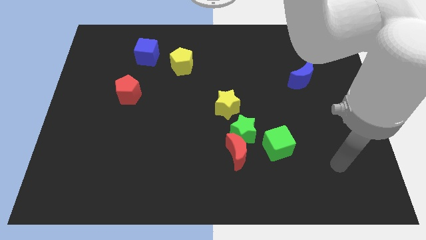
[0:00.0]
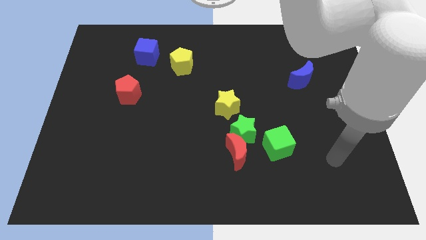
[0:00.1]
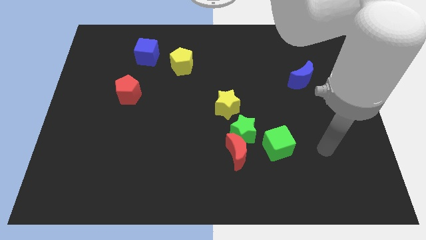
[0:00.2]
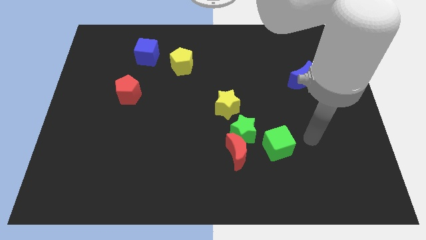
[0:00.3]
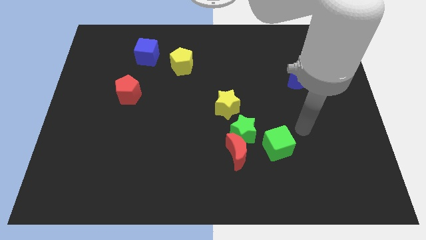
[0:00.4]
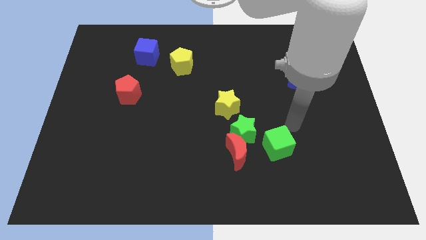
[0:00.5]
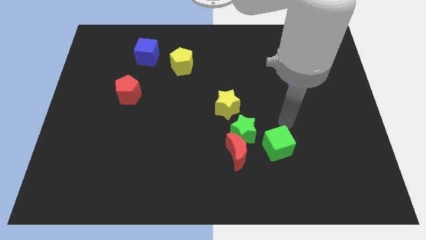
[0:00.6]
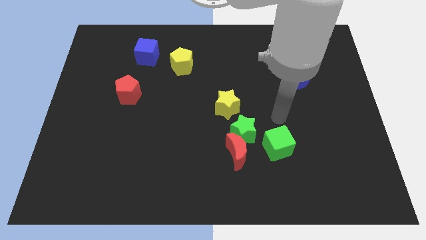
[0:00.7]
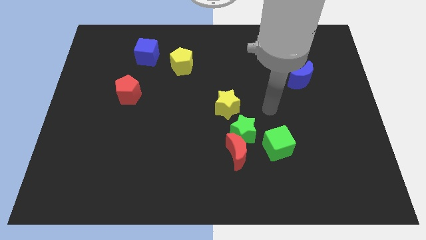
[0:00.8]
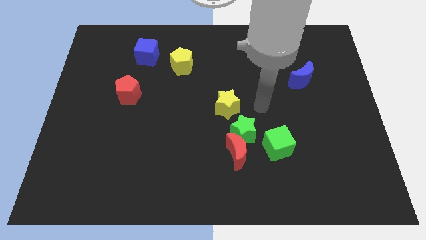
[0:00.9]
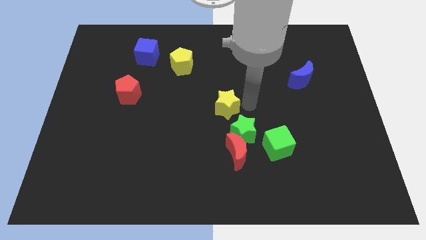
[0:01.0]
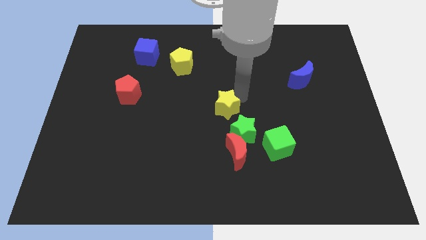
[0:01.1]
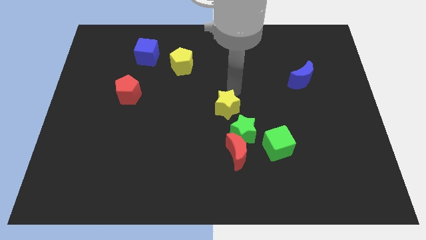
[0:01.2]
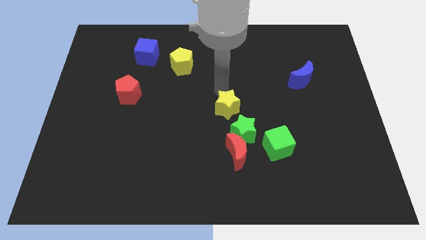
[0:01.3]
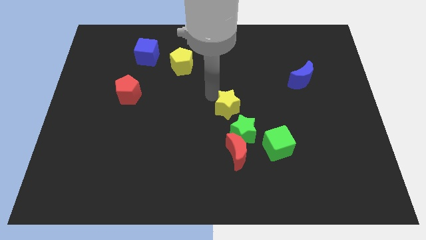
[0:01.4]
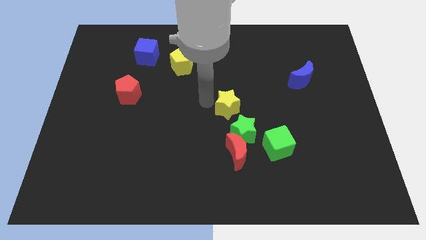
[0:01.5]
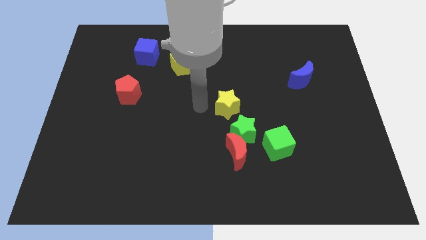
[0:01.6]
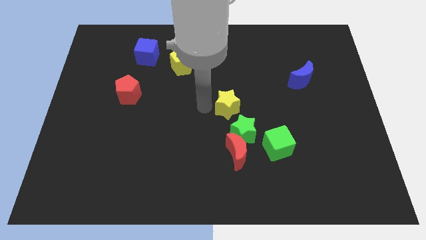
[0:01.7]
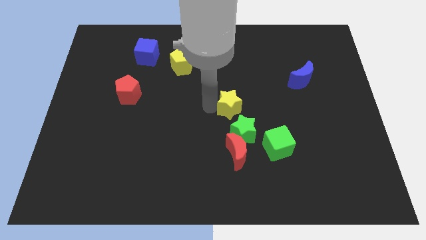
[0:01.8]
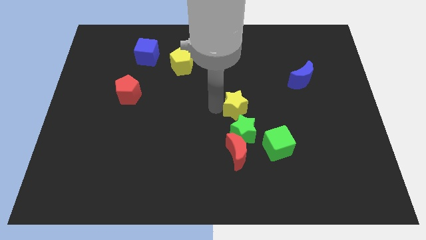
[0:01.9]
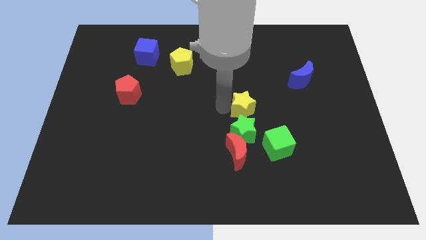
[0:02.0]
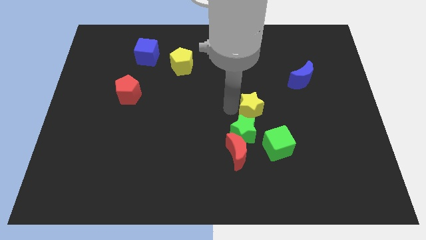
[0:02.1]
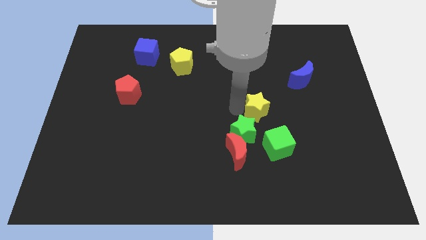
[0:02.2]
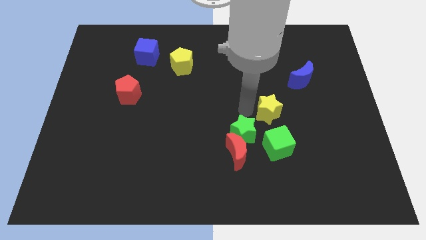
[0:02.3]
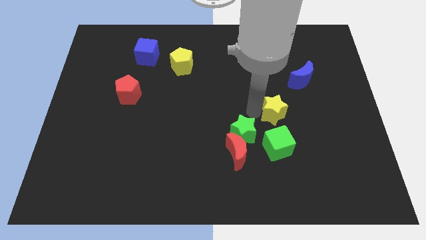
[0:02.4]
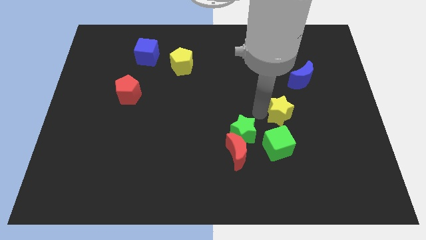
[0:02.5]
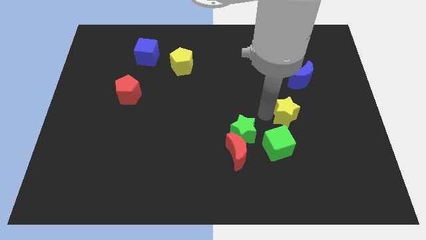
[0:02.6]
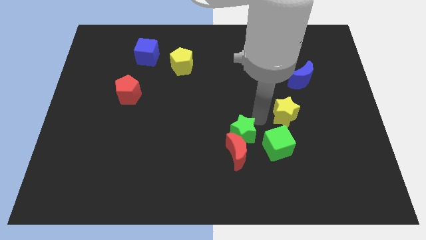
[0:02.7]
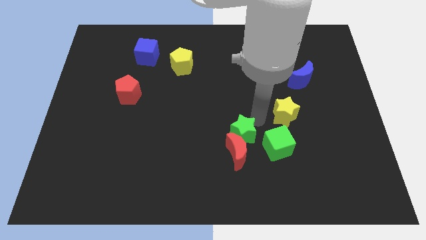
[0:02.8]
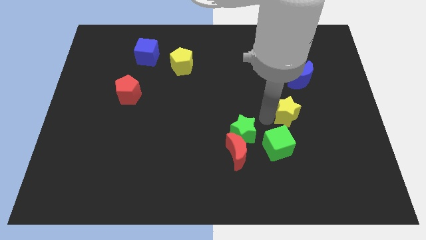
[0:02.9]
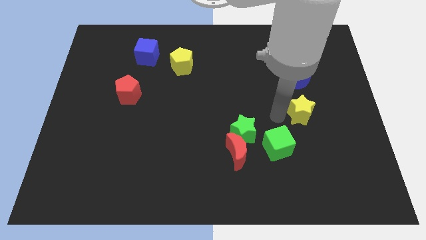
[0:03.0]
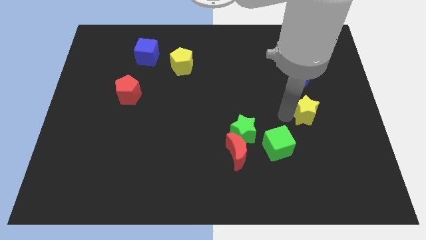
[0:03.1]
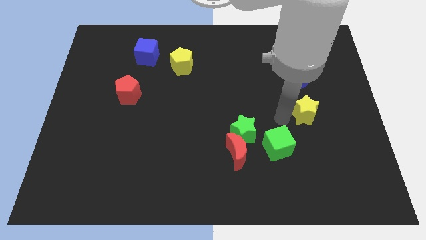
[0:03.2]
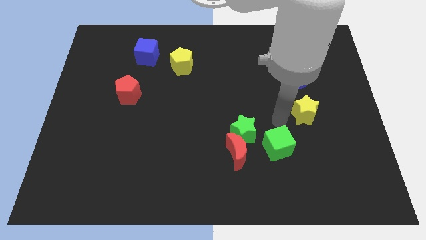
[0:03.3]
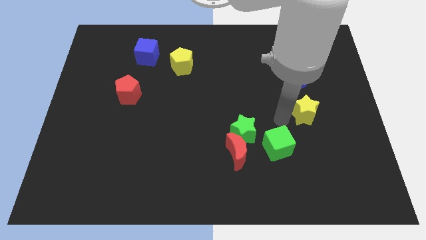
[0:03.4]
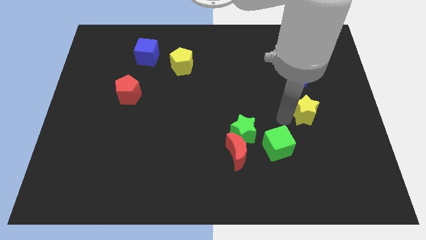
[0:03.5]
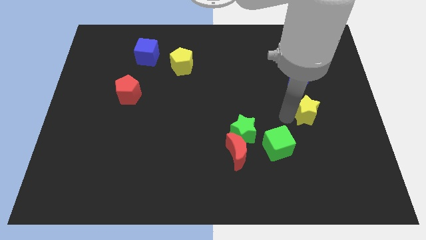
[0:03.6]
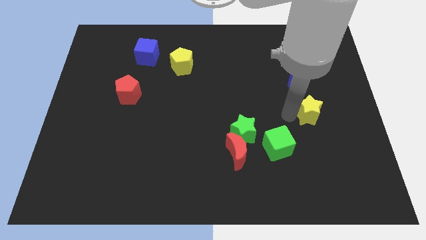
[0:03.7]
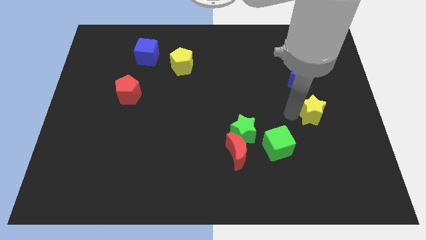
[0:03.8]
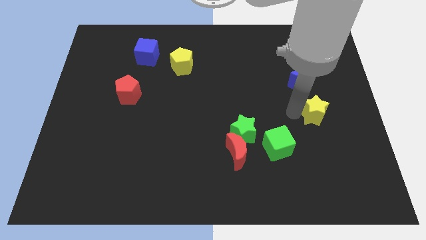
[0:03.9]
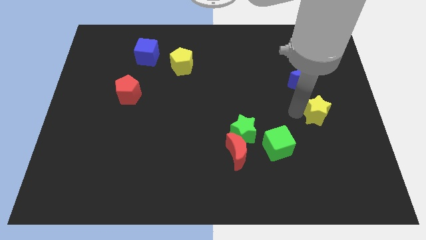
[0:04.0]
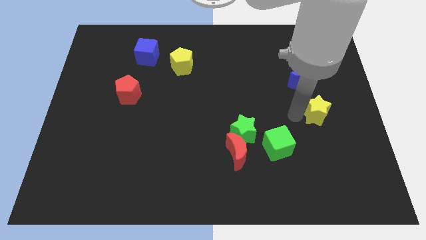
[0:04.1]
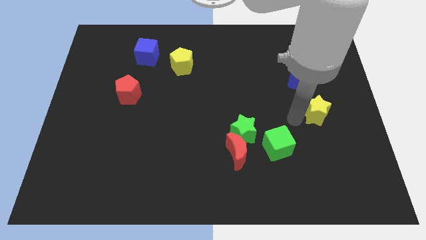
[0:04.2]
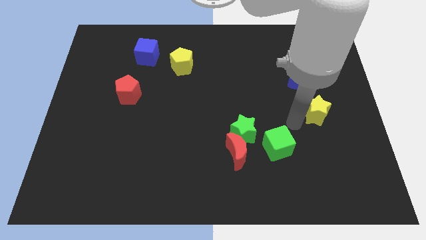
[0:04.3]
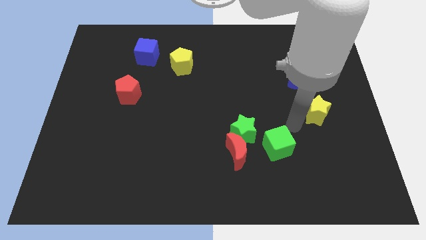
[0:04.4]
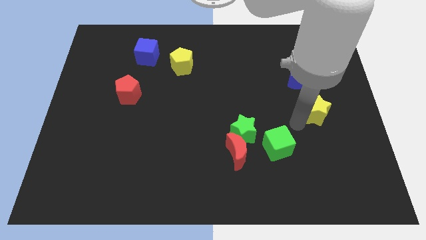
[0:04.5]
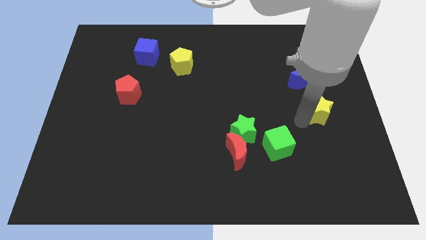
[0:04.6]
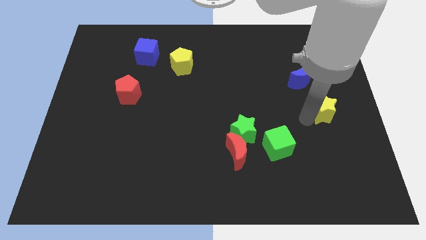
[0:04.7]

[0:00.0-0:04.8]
push the yellow star to the center right

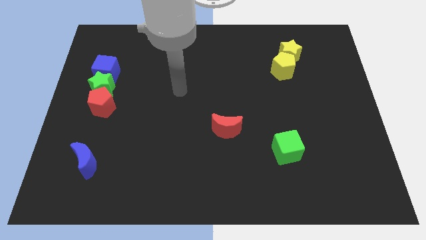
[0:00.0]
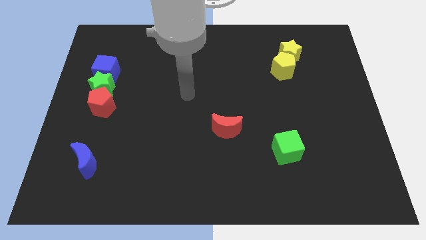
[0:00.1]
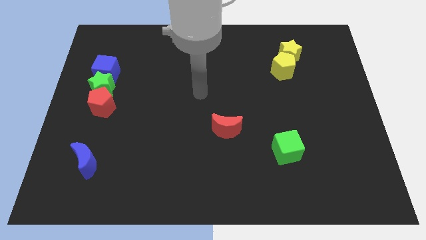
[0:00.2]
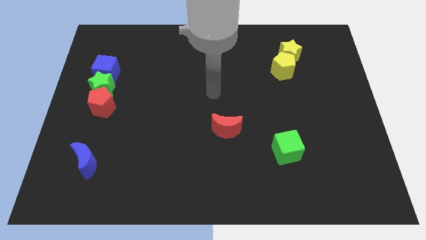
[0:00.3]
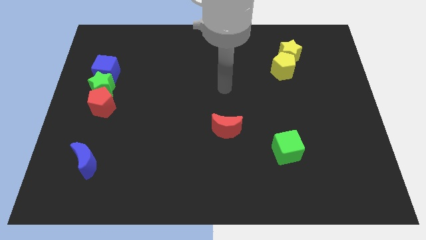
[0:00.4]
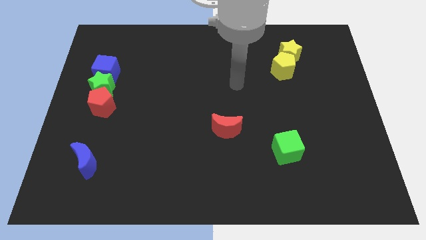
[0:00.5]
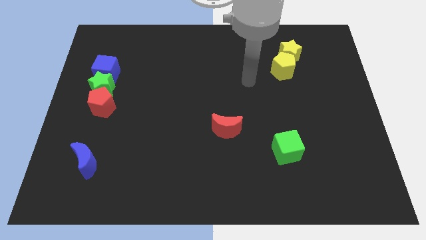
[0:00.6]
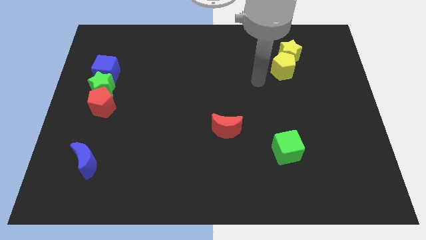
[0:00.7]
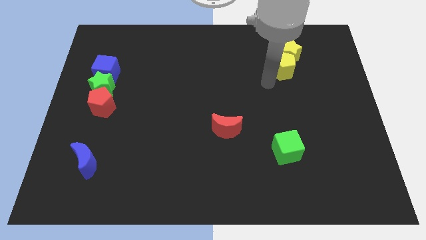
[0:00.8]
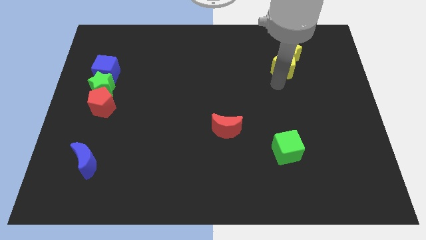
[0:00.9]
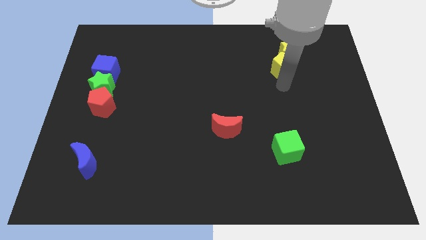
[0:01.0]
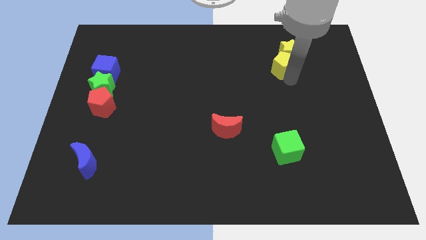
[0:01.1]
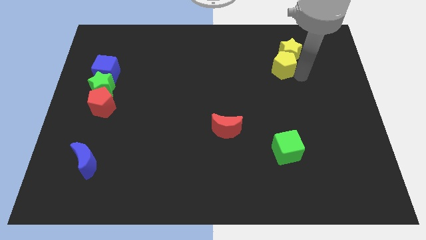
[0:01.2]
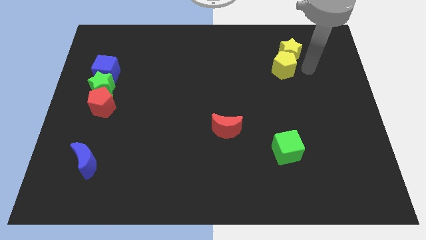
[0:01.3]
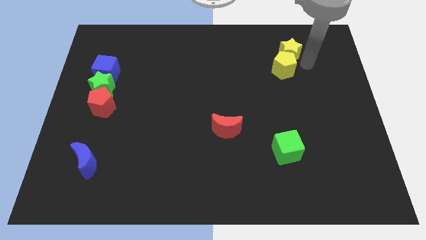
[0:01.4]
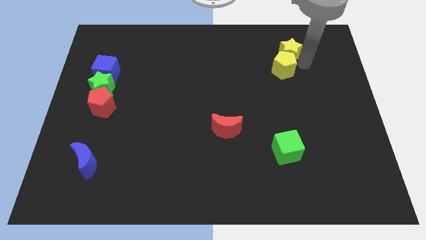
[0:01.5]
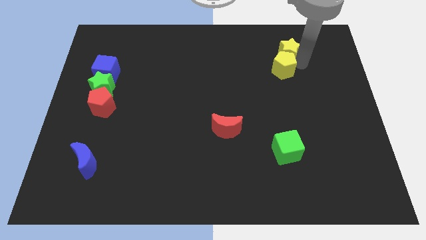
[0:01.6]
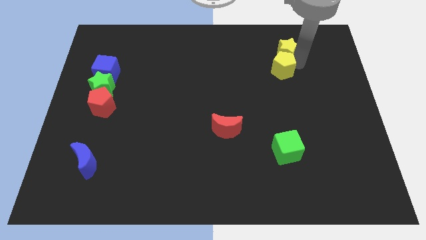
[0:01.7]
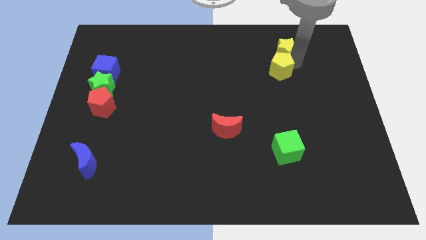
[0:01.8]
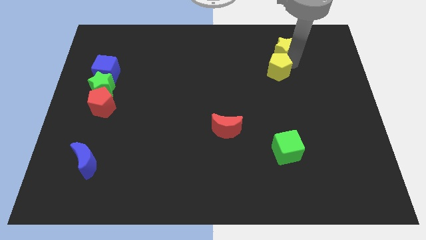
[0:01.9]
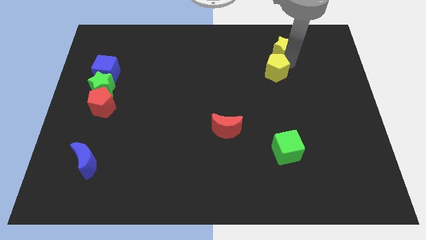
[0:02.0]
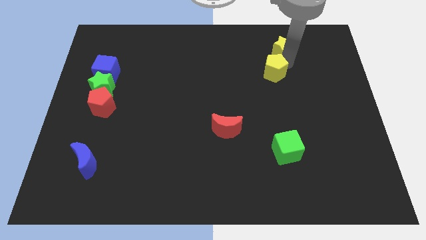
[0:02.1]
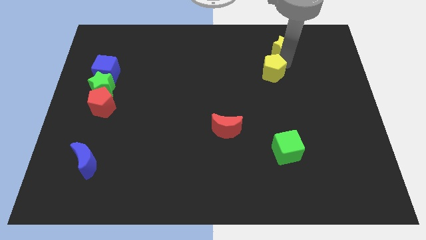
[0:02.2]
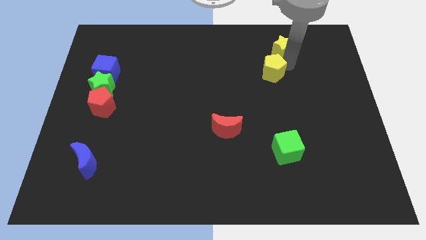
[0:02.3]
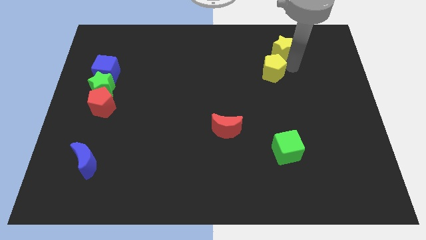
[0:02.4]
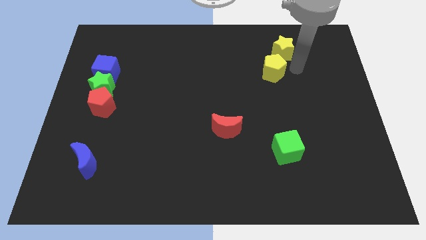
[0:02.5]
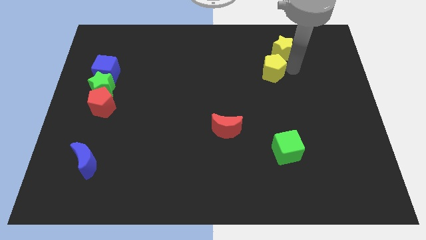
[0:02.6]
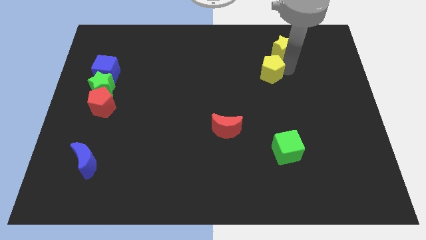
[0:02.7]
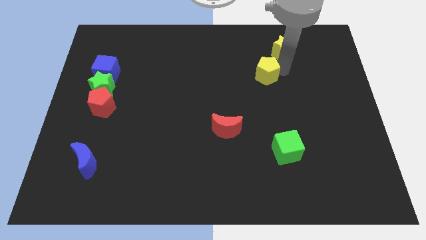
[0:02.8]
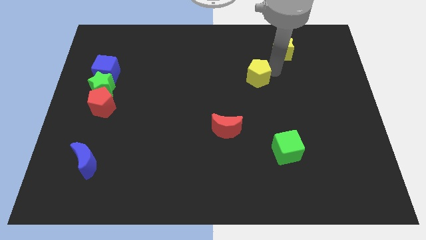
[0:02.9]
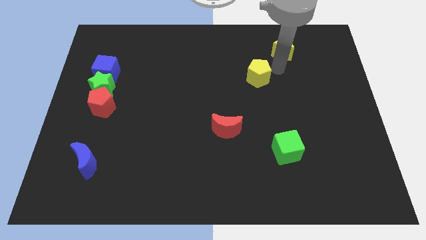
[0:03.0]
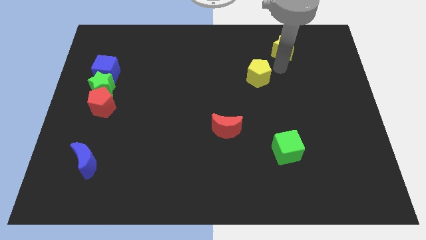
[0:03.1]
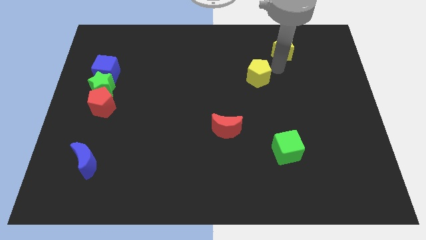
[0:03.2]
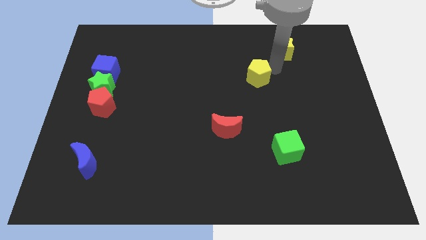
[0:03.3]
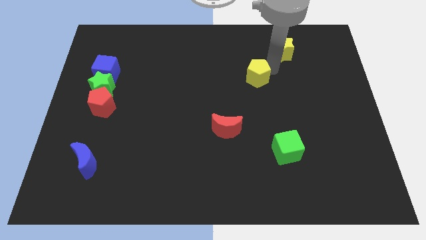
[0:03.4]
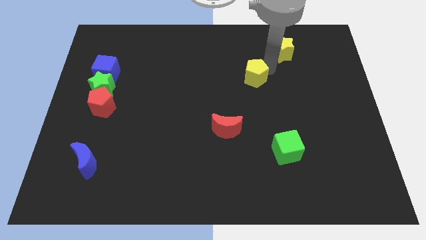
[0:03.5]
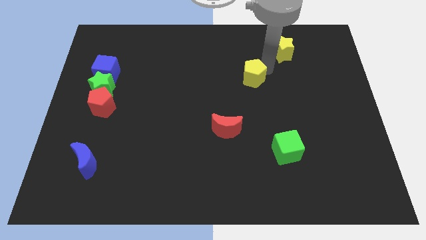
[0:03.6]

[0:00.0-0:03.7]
push the yellow pentagon to the center of the board
